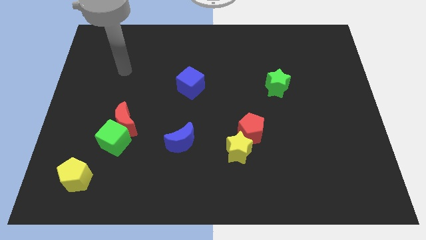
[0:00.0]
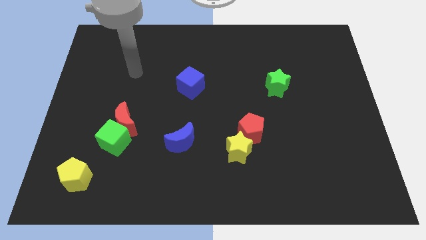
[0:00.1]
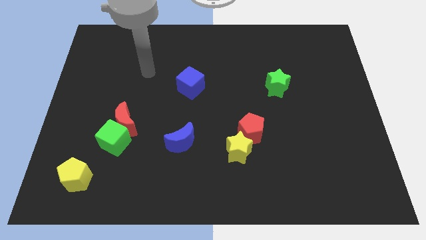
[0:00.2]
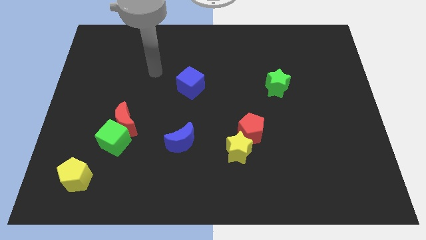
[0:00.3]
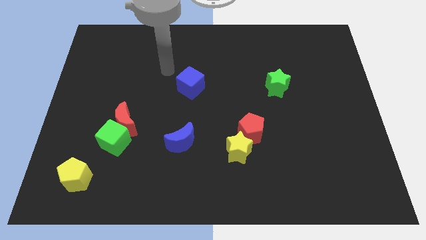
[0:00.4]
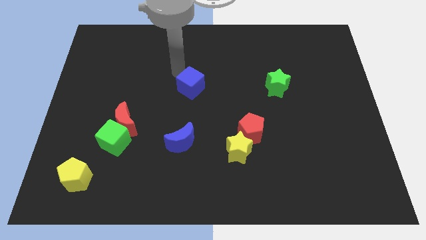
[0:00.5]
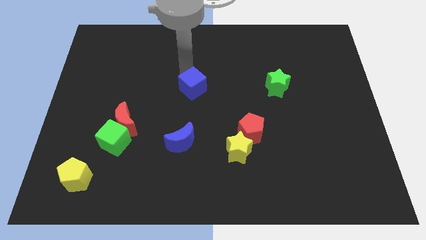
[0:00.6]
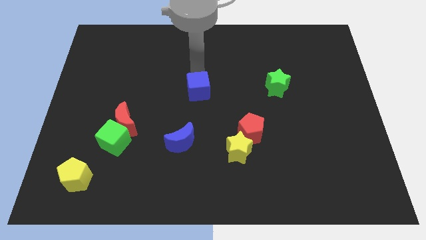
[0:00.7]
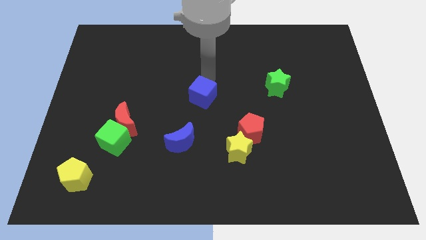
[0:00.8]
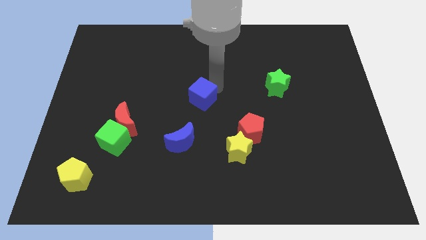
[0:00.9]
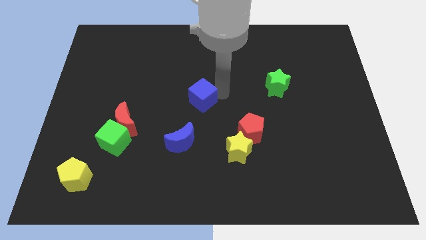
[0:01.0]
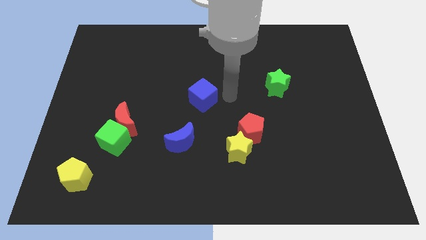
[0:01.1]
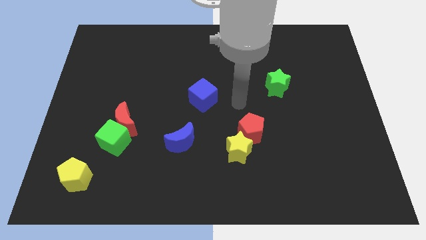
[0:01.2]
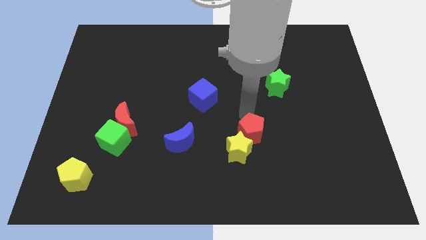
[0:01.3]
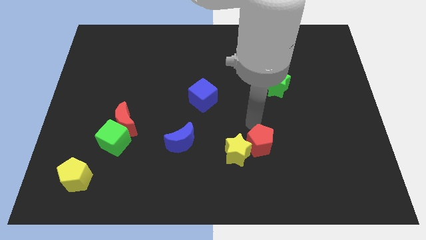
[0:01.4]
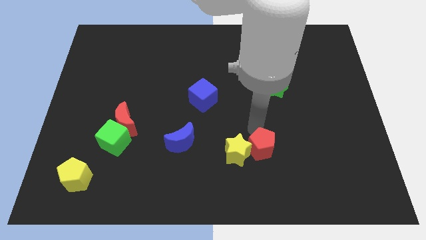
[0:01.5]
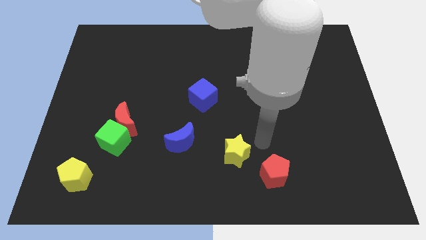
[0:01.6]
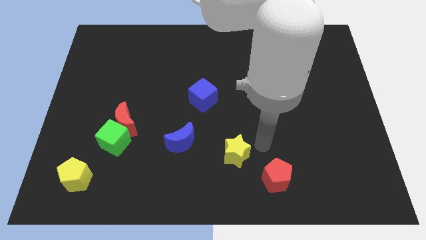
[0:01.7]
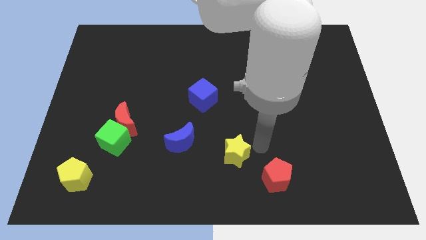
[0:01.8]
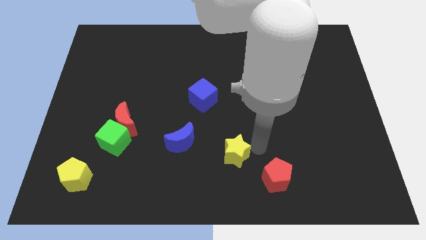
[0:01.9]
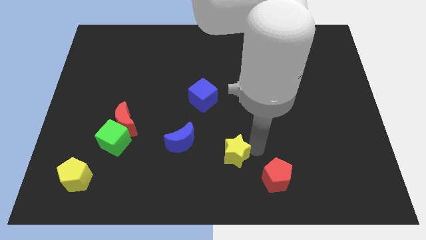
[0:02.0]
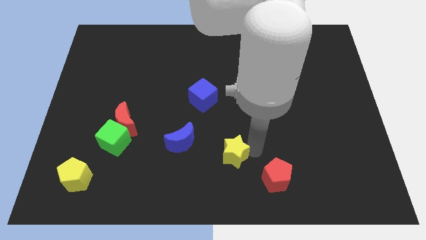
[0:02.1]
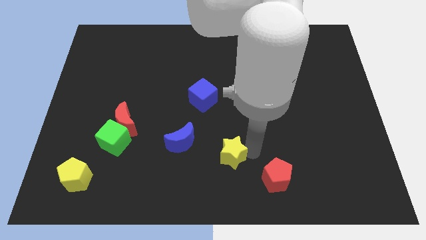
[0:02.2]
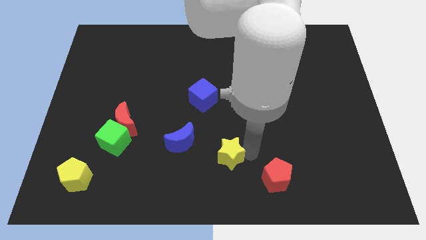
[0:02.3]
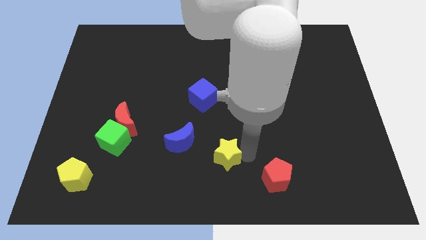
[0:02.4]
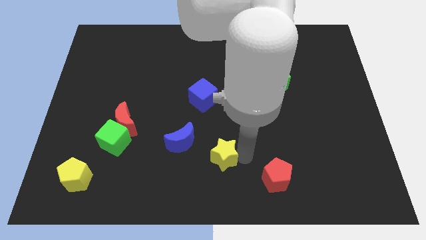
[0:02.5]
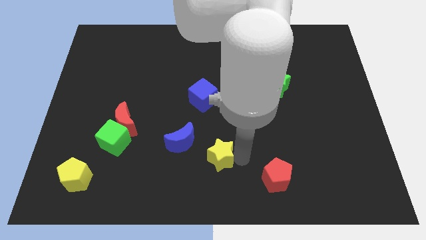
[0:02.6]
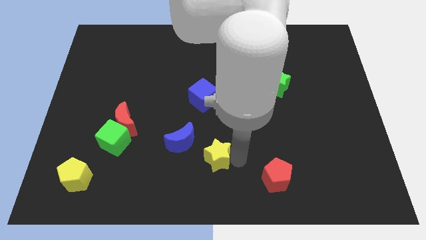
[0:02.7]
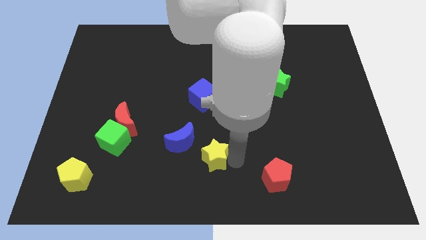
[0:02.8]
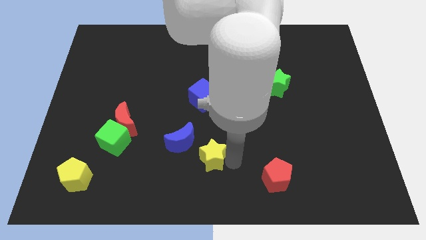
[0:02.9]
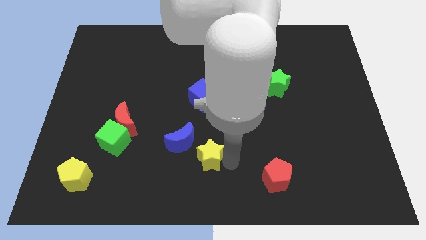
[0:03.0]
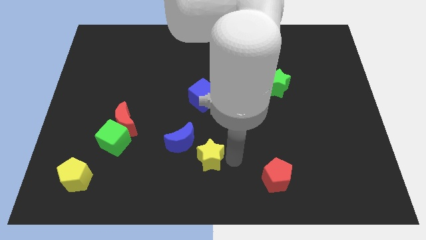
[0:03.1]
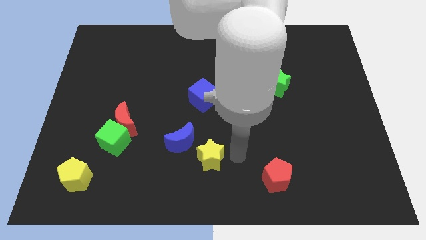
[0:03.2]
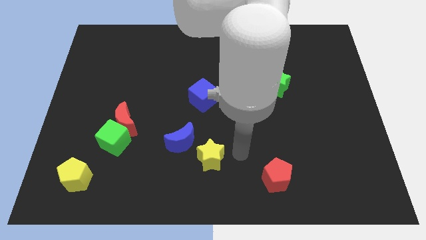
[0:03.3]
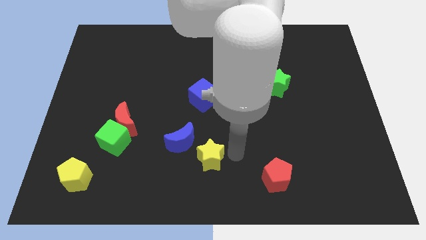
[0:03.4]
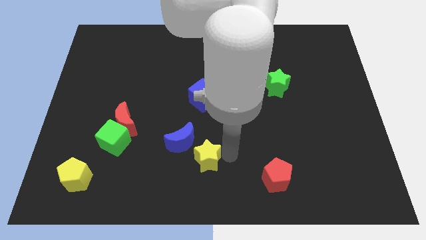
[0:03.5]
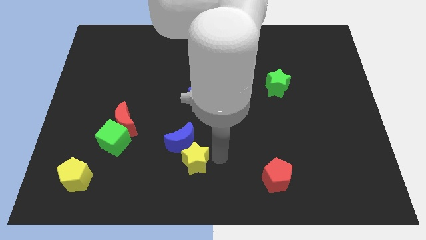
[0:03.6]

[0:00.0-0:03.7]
slightly move the yellow star left

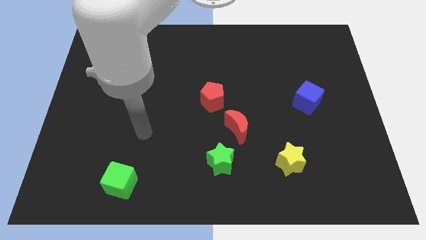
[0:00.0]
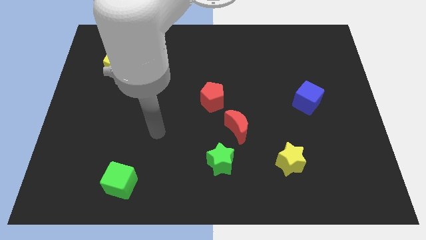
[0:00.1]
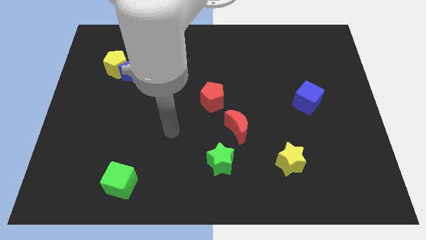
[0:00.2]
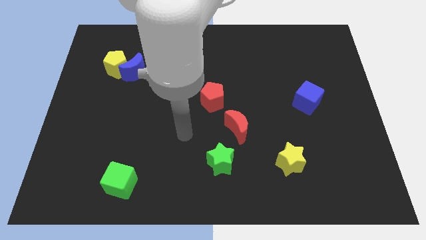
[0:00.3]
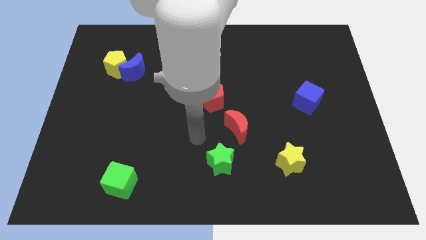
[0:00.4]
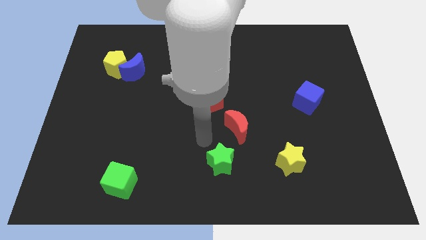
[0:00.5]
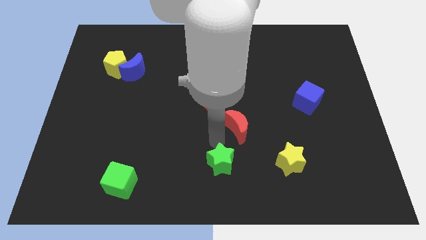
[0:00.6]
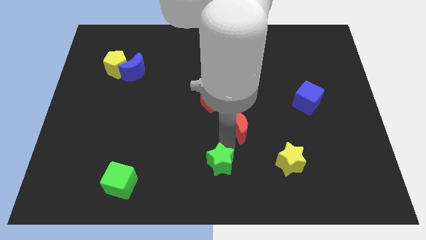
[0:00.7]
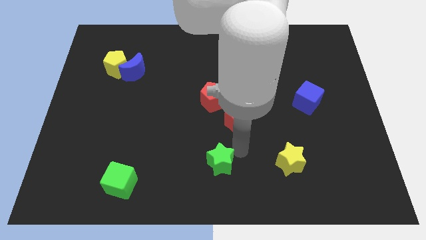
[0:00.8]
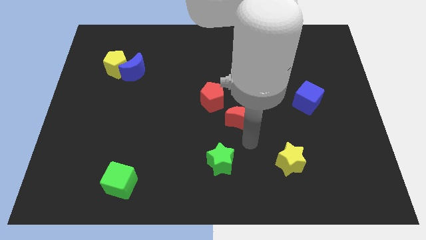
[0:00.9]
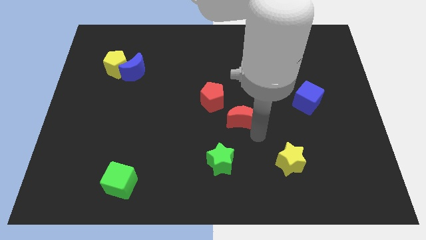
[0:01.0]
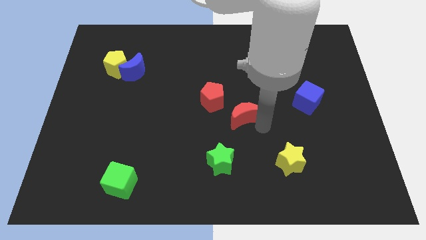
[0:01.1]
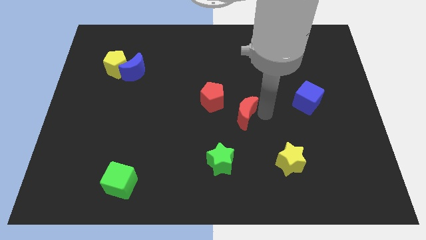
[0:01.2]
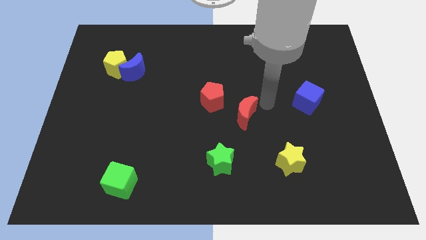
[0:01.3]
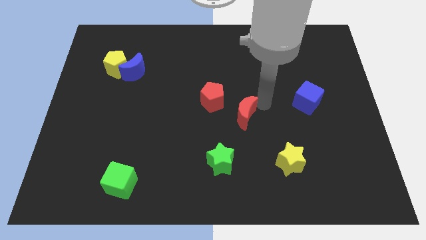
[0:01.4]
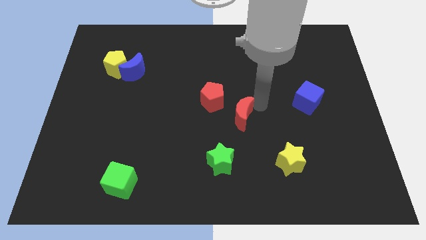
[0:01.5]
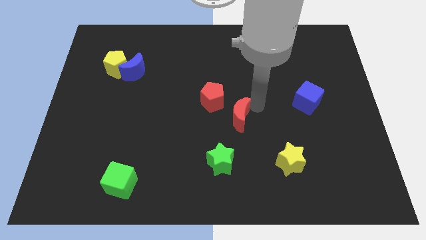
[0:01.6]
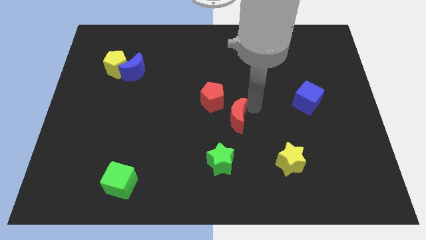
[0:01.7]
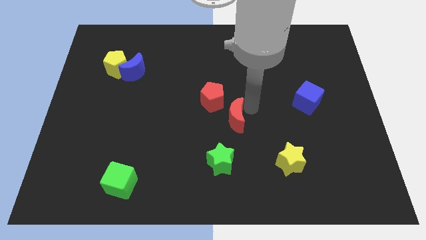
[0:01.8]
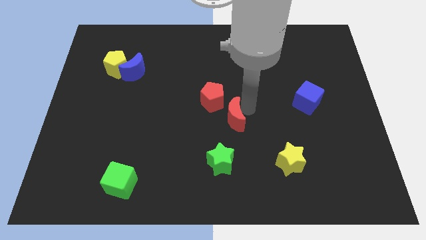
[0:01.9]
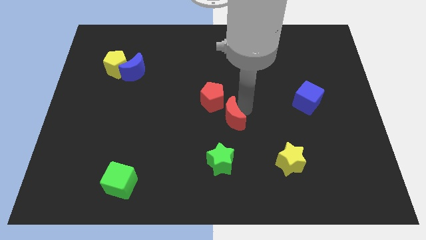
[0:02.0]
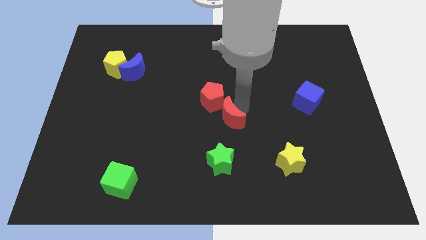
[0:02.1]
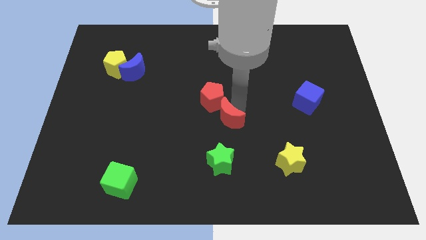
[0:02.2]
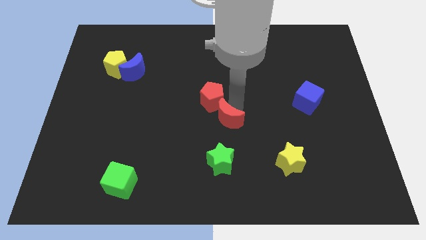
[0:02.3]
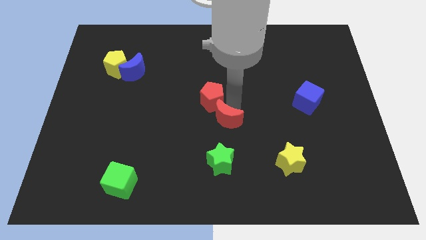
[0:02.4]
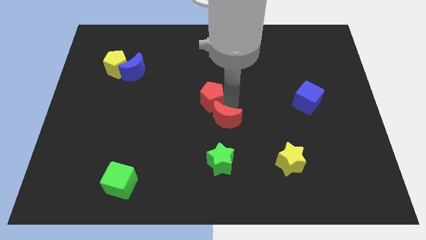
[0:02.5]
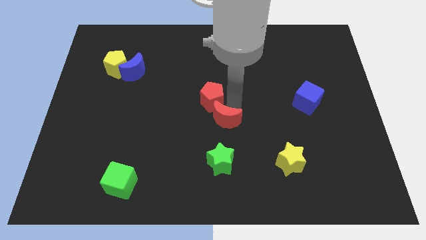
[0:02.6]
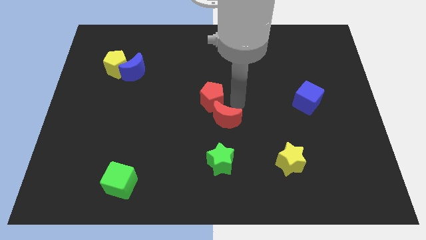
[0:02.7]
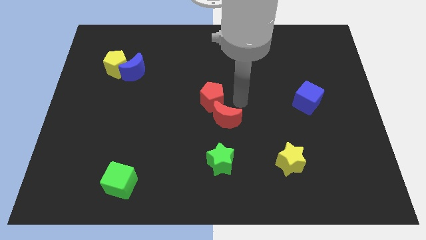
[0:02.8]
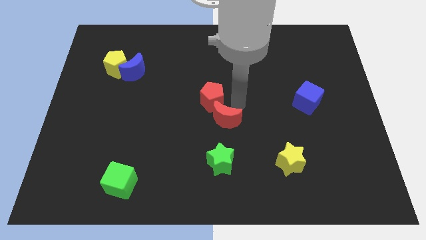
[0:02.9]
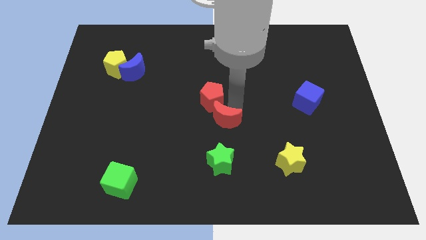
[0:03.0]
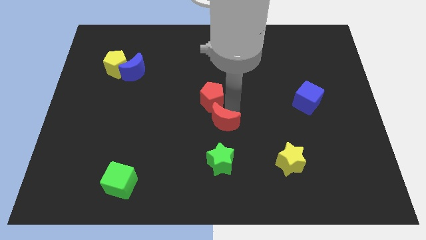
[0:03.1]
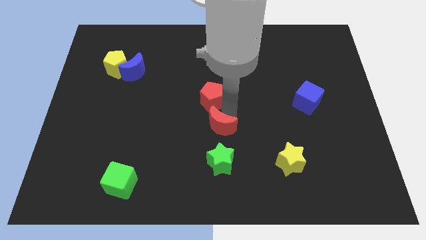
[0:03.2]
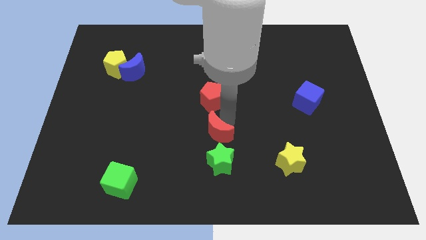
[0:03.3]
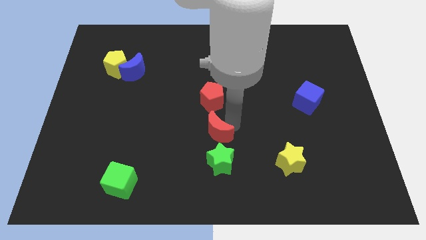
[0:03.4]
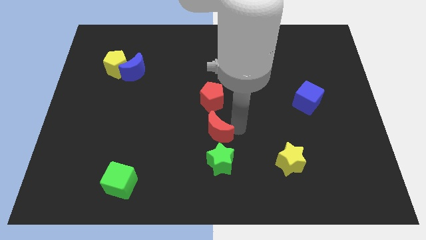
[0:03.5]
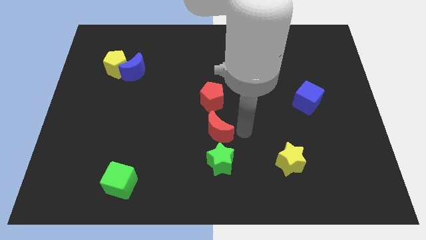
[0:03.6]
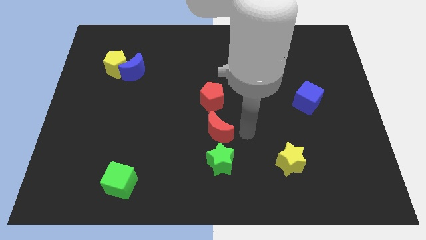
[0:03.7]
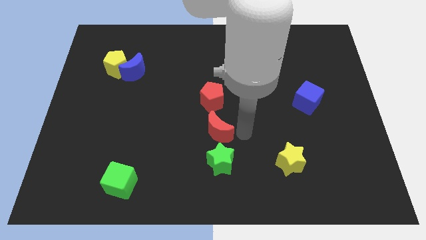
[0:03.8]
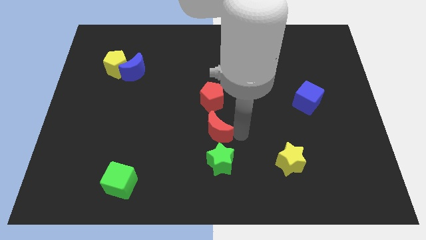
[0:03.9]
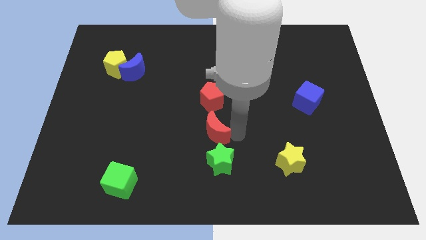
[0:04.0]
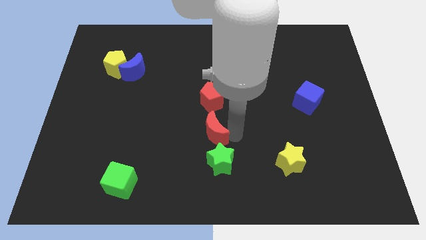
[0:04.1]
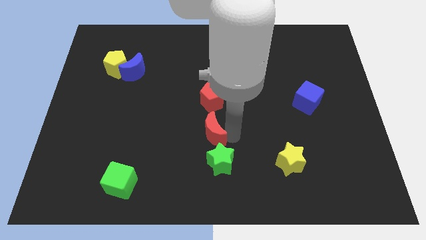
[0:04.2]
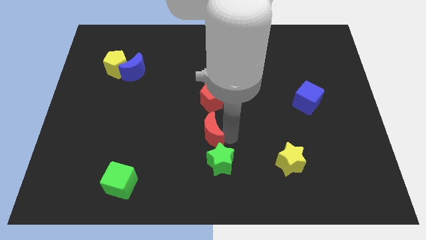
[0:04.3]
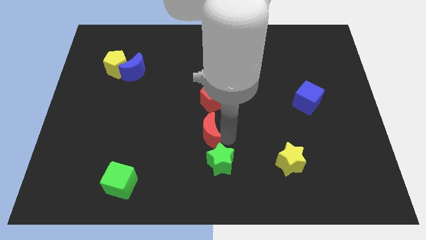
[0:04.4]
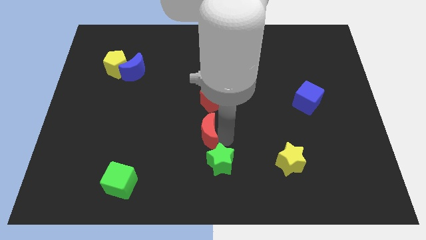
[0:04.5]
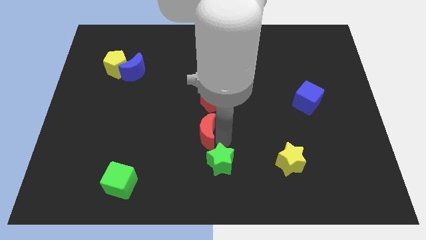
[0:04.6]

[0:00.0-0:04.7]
slide the red moon somewhat to the left
